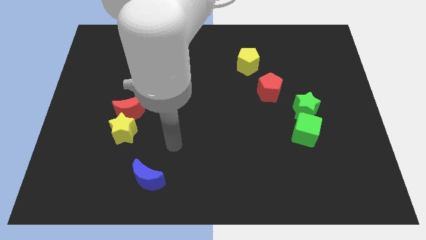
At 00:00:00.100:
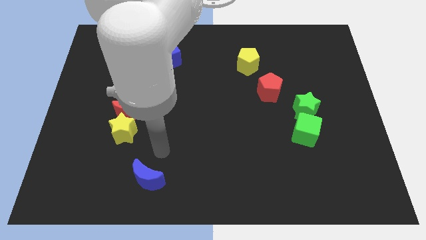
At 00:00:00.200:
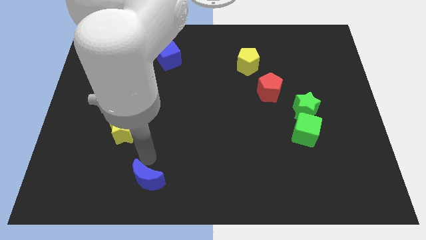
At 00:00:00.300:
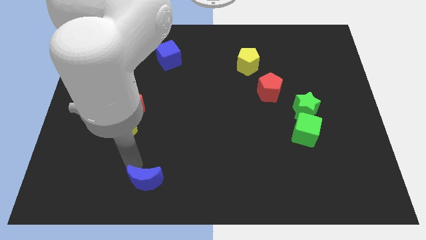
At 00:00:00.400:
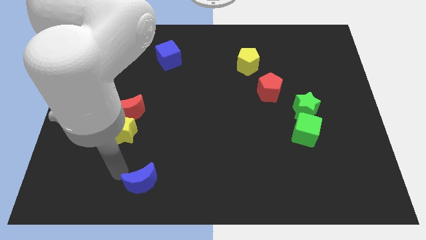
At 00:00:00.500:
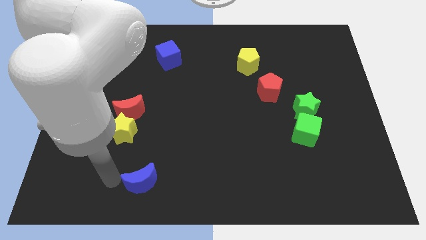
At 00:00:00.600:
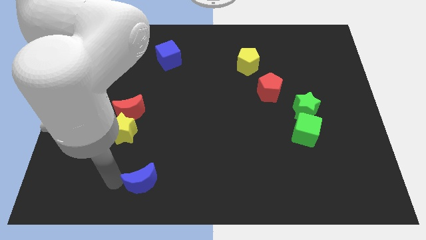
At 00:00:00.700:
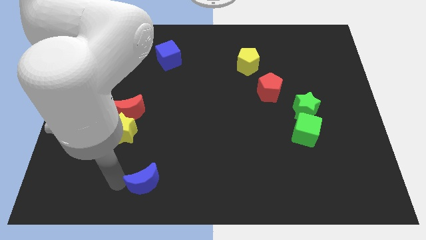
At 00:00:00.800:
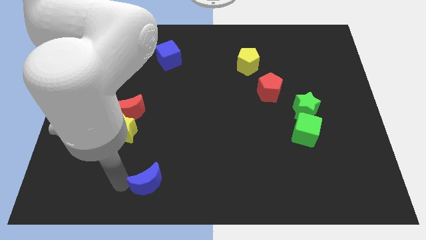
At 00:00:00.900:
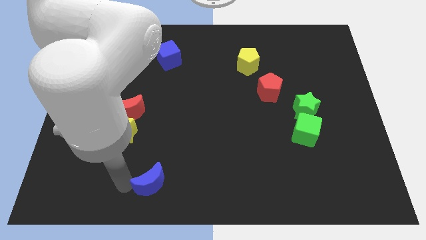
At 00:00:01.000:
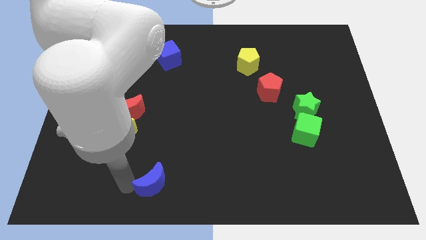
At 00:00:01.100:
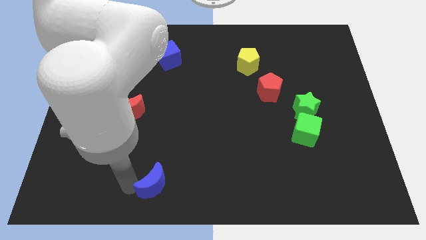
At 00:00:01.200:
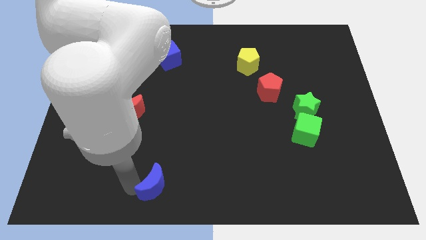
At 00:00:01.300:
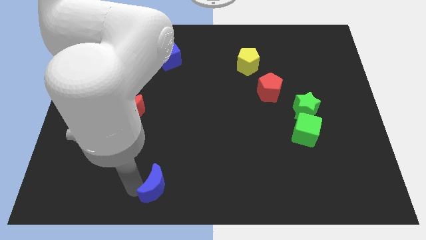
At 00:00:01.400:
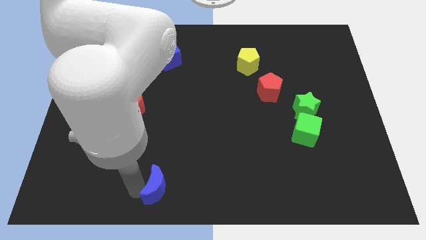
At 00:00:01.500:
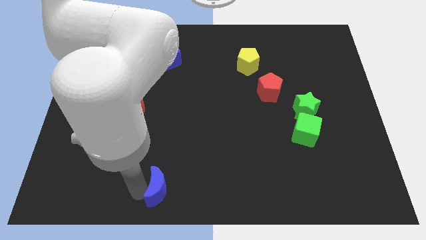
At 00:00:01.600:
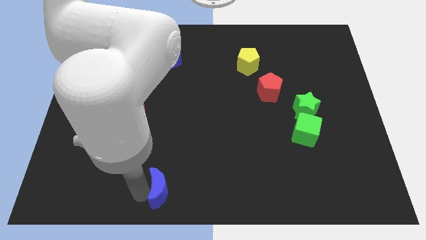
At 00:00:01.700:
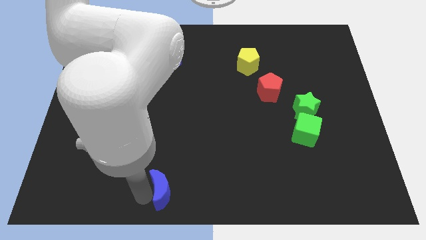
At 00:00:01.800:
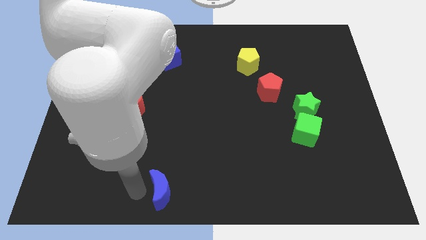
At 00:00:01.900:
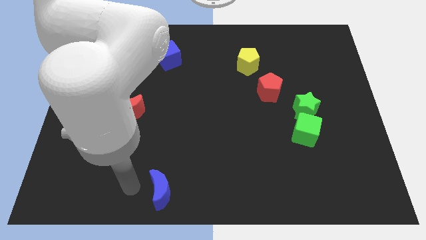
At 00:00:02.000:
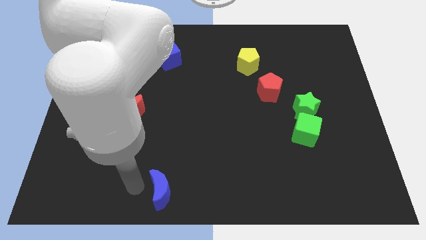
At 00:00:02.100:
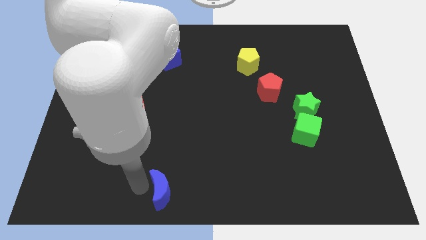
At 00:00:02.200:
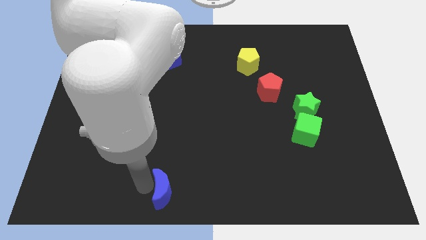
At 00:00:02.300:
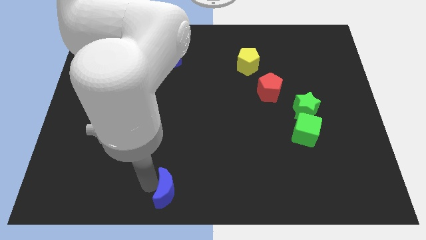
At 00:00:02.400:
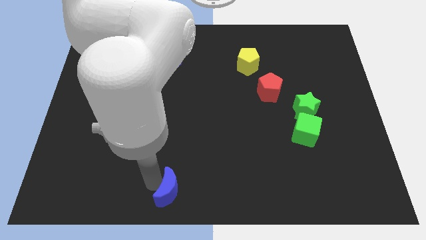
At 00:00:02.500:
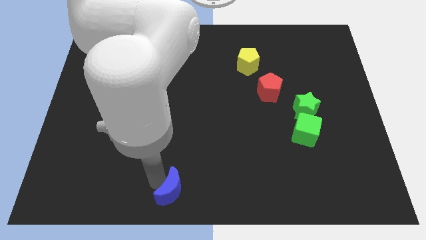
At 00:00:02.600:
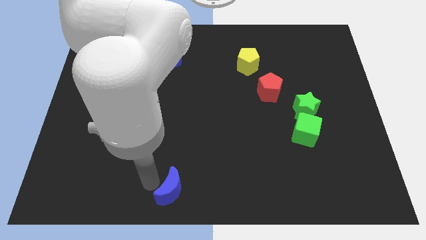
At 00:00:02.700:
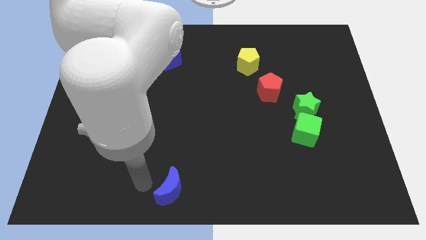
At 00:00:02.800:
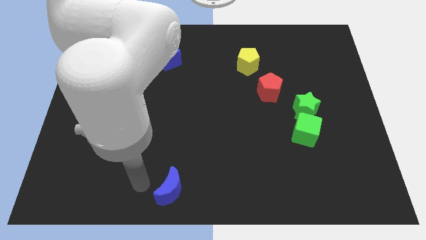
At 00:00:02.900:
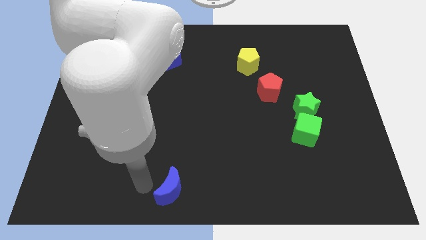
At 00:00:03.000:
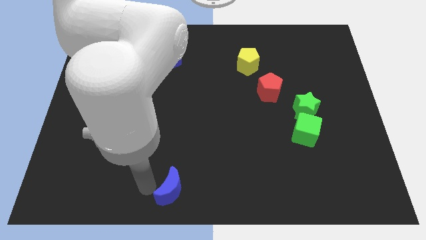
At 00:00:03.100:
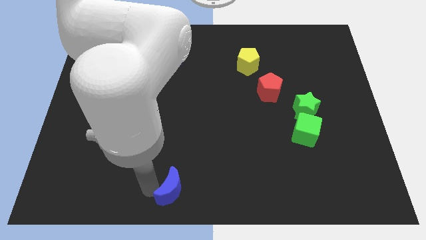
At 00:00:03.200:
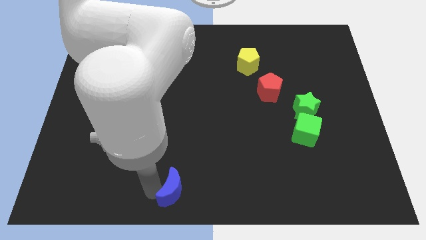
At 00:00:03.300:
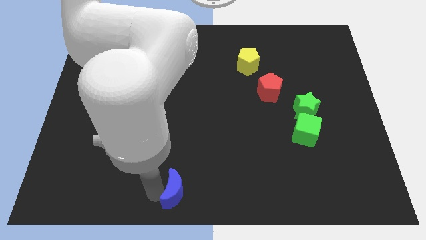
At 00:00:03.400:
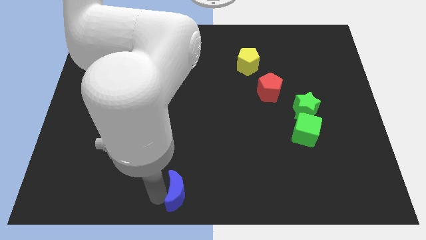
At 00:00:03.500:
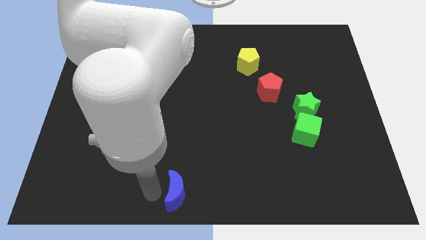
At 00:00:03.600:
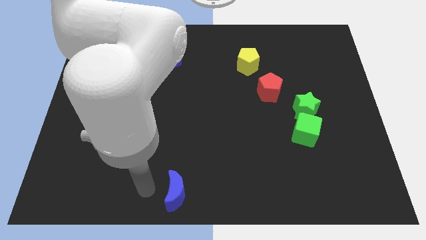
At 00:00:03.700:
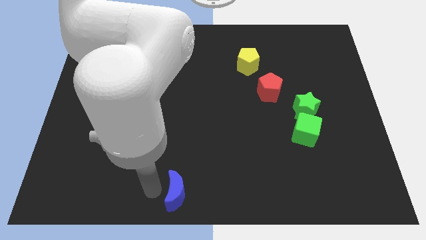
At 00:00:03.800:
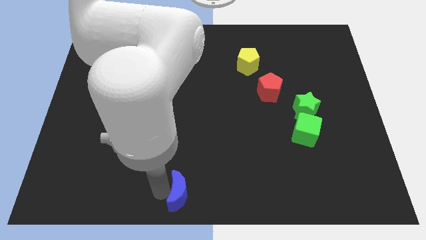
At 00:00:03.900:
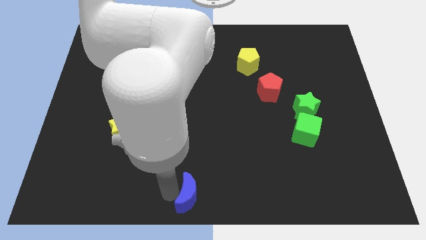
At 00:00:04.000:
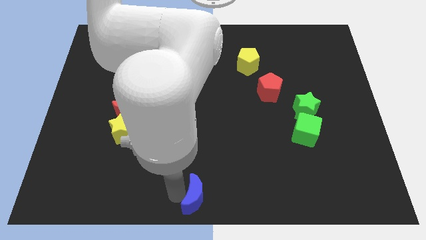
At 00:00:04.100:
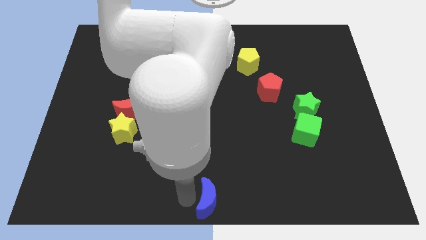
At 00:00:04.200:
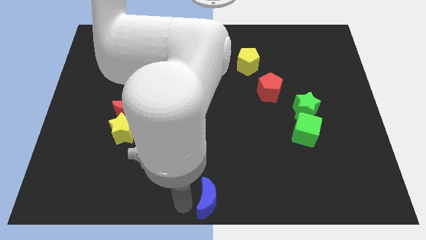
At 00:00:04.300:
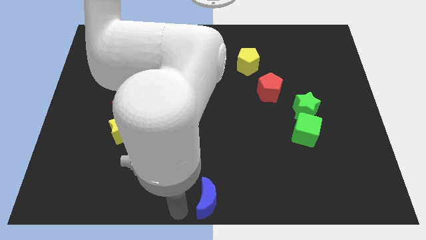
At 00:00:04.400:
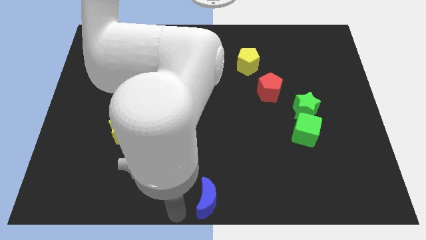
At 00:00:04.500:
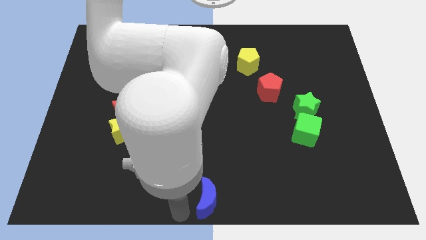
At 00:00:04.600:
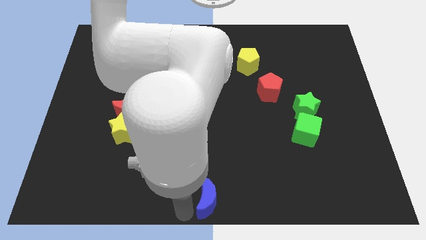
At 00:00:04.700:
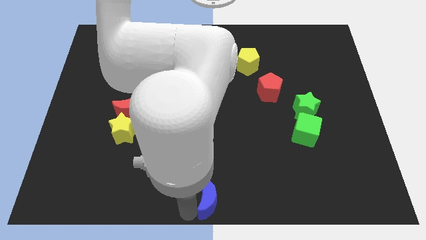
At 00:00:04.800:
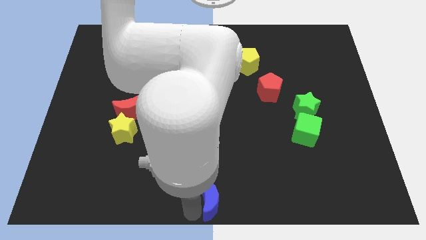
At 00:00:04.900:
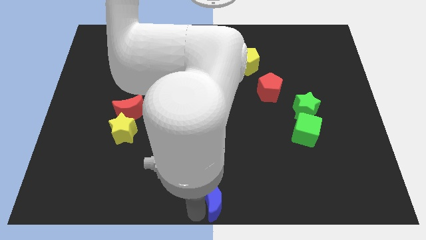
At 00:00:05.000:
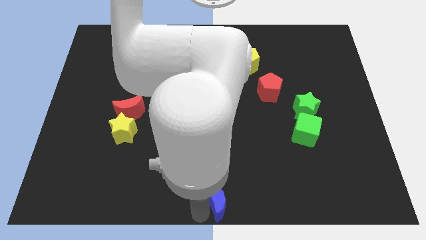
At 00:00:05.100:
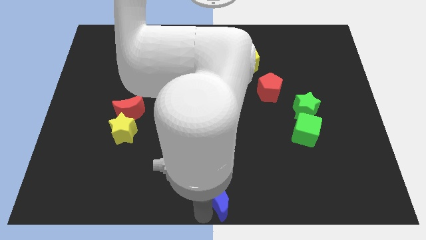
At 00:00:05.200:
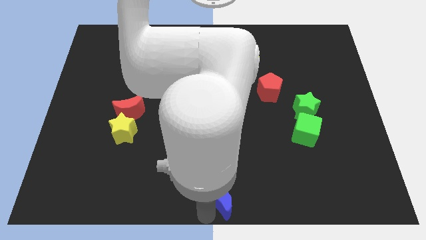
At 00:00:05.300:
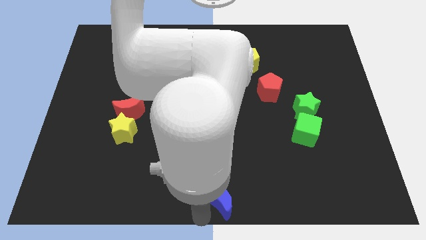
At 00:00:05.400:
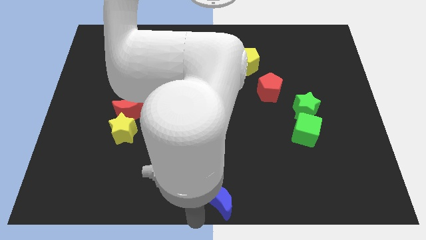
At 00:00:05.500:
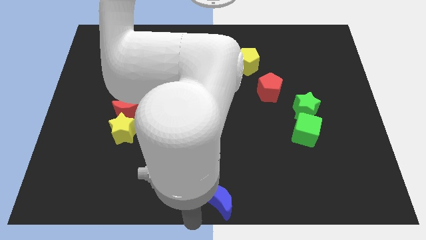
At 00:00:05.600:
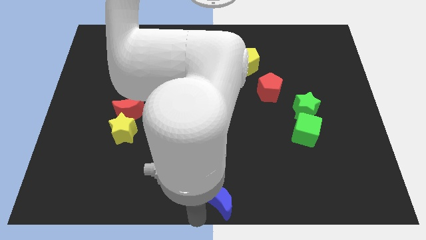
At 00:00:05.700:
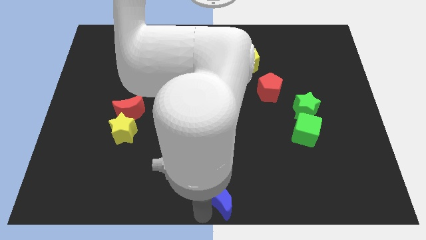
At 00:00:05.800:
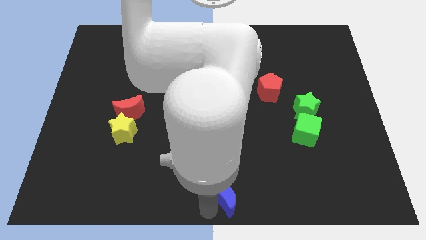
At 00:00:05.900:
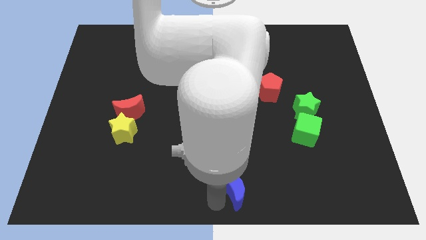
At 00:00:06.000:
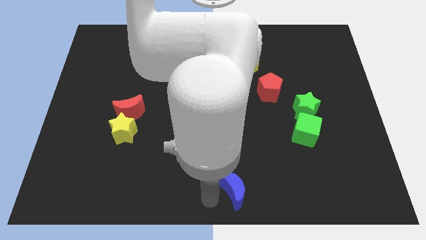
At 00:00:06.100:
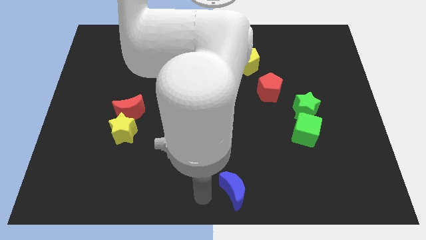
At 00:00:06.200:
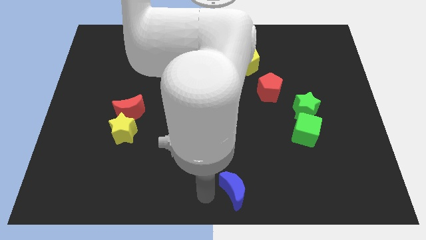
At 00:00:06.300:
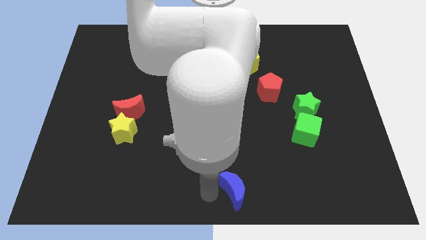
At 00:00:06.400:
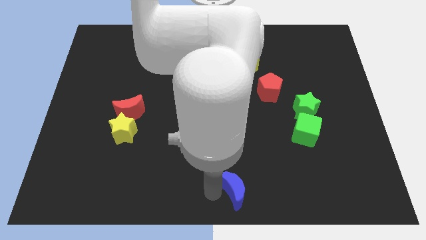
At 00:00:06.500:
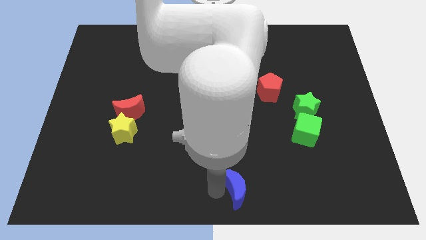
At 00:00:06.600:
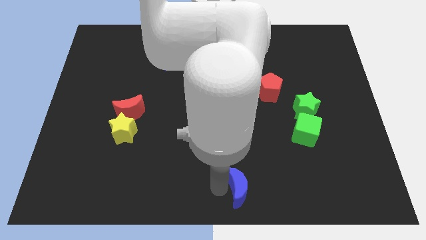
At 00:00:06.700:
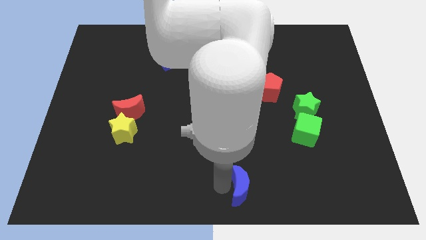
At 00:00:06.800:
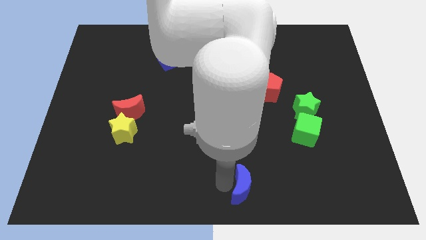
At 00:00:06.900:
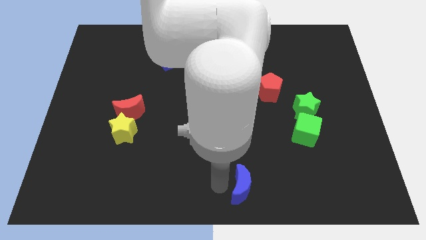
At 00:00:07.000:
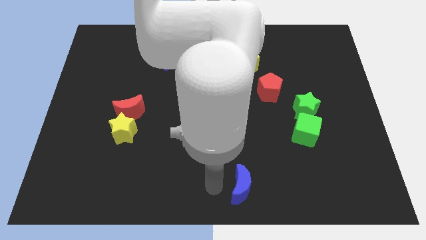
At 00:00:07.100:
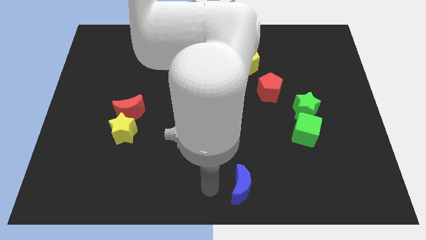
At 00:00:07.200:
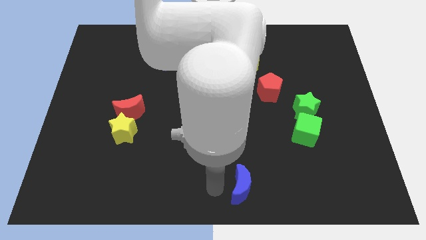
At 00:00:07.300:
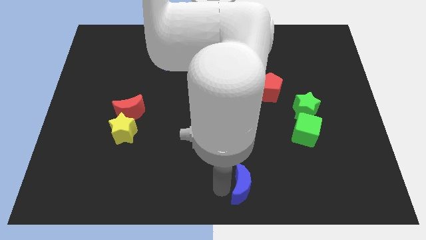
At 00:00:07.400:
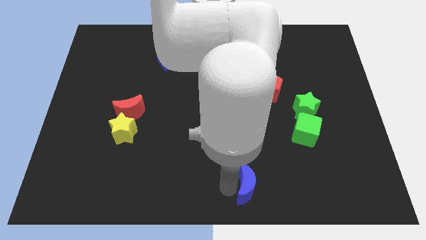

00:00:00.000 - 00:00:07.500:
slide the blue moon right

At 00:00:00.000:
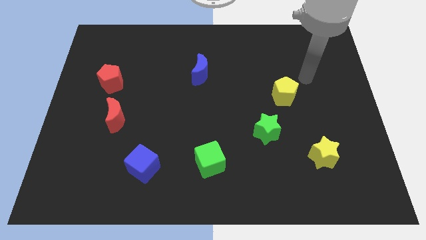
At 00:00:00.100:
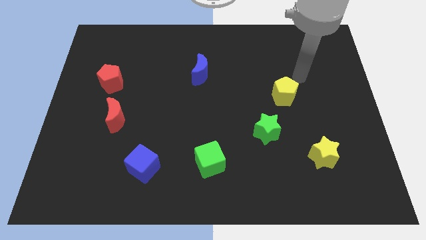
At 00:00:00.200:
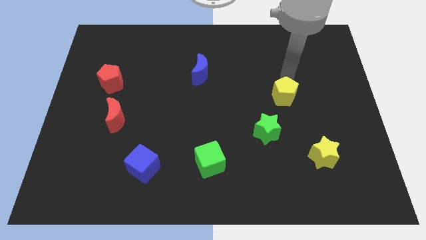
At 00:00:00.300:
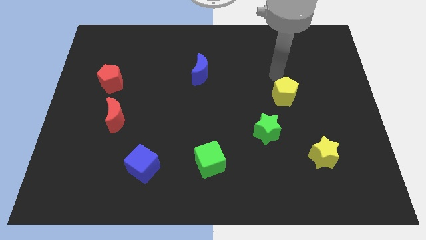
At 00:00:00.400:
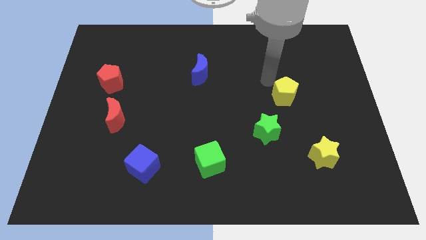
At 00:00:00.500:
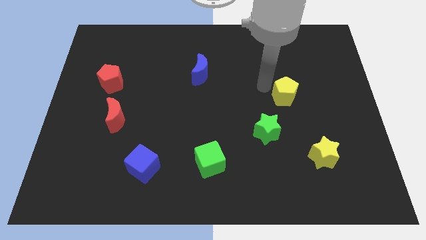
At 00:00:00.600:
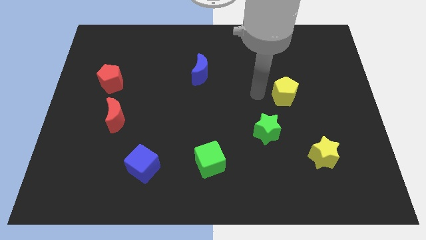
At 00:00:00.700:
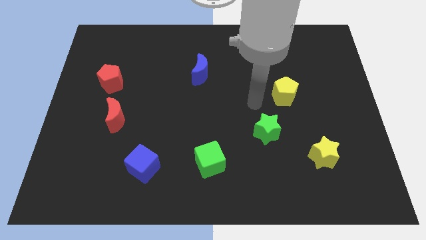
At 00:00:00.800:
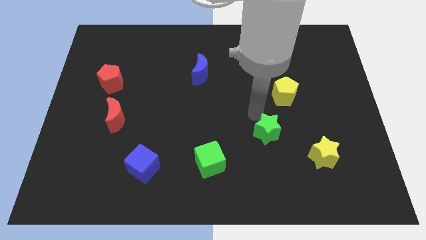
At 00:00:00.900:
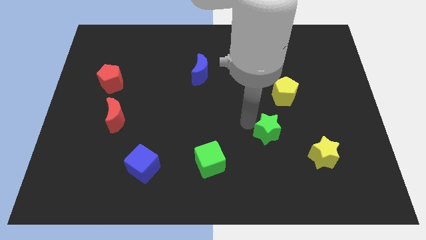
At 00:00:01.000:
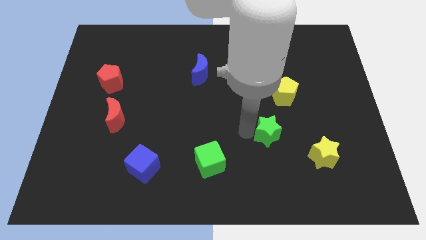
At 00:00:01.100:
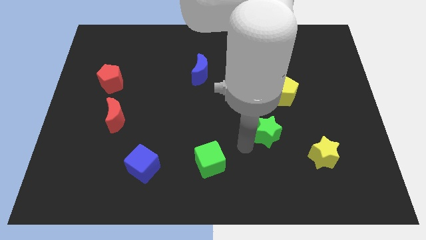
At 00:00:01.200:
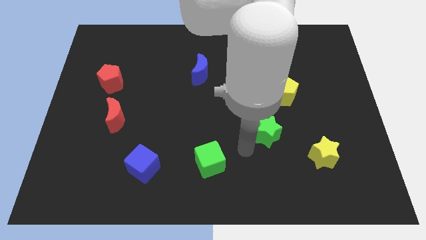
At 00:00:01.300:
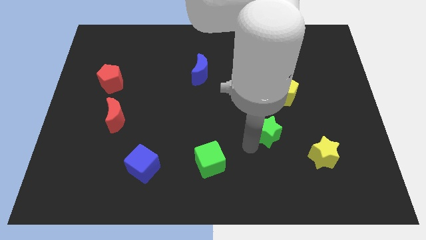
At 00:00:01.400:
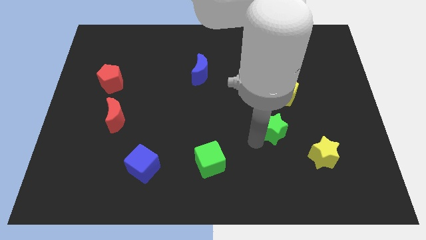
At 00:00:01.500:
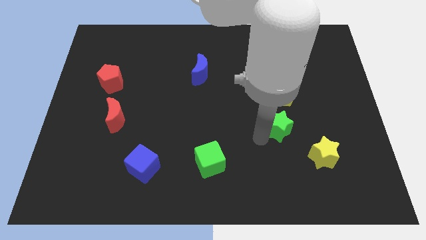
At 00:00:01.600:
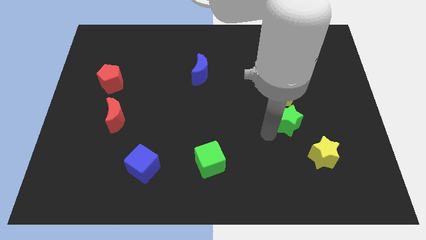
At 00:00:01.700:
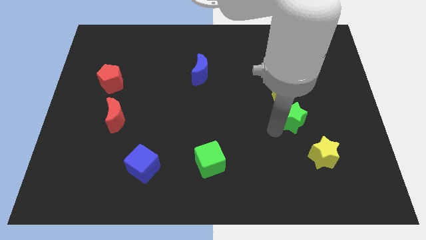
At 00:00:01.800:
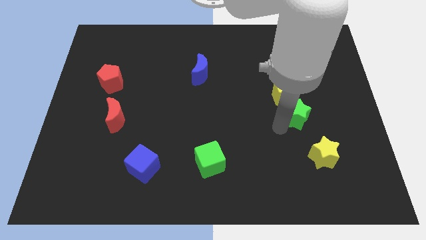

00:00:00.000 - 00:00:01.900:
slide the green star upwards and then right a little bit
